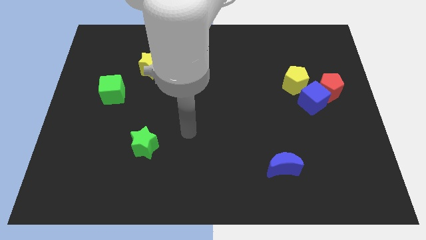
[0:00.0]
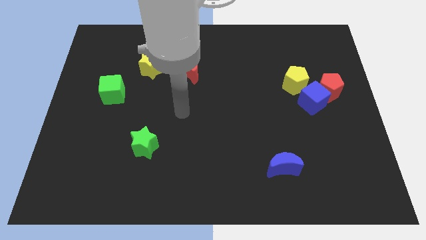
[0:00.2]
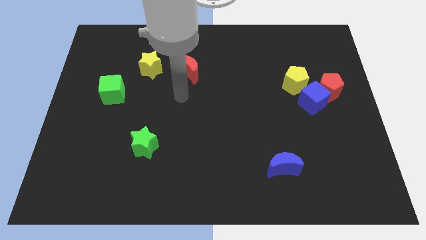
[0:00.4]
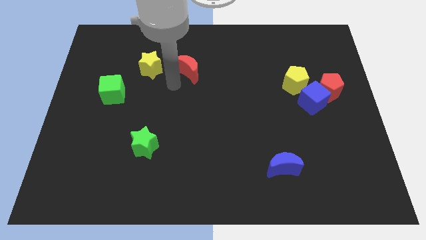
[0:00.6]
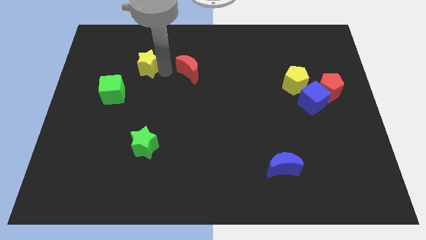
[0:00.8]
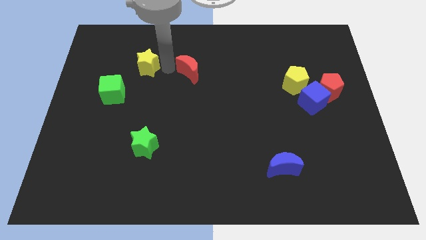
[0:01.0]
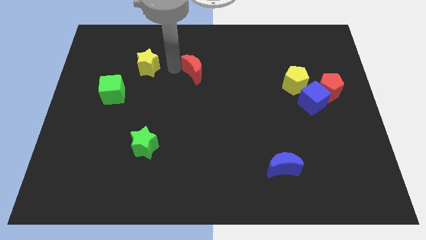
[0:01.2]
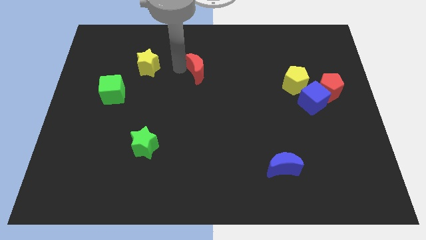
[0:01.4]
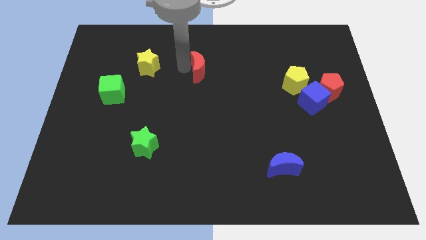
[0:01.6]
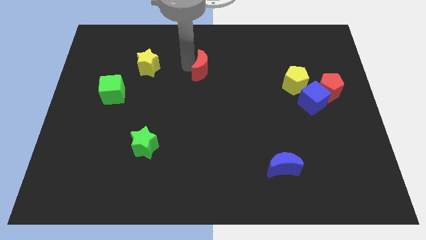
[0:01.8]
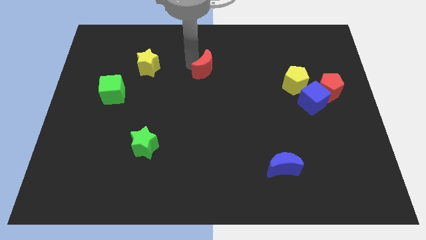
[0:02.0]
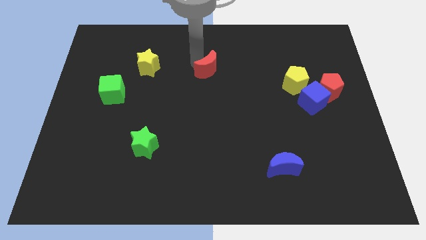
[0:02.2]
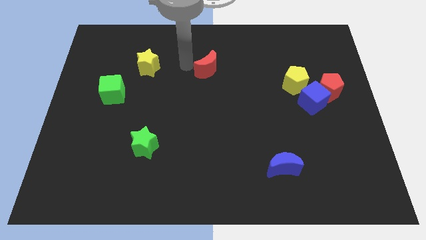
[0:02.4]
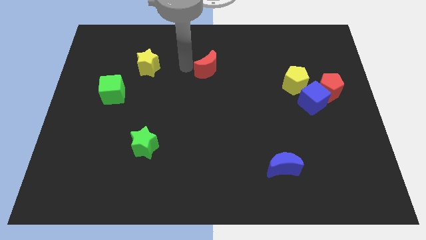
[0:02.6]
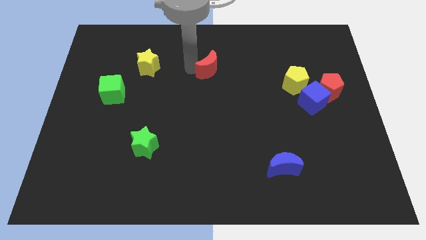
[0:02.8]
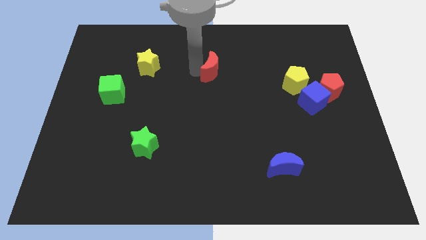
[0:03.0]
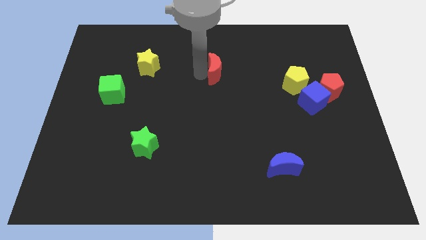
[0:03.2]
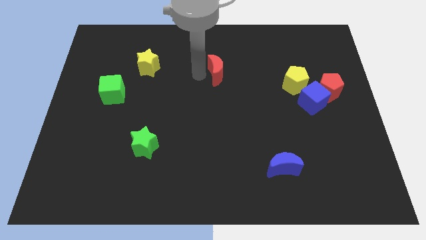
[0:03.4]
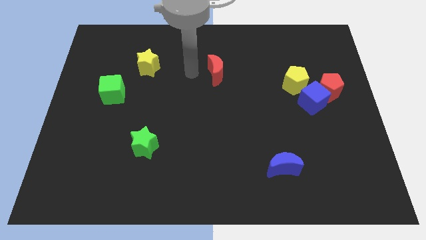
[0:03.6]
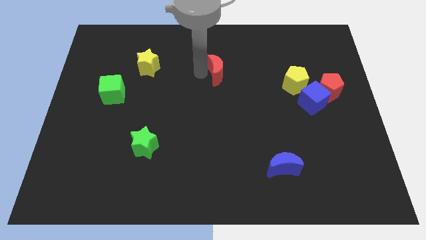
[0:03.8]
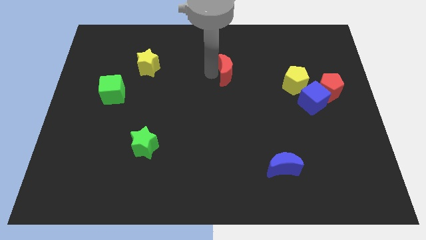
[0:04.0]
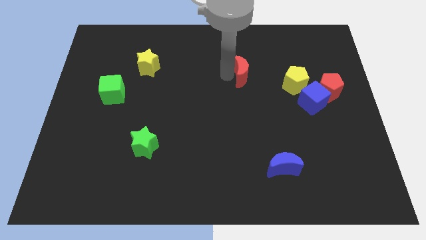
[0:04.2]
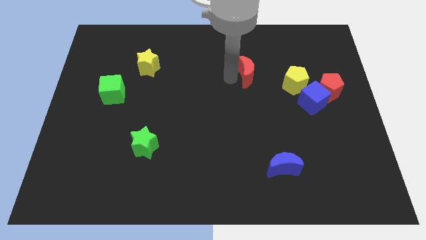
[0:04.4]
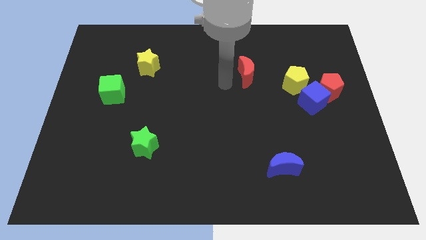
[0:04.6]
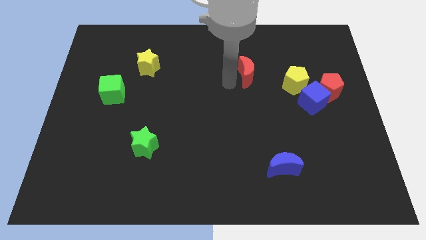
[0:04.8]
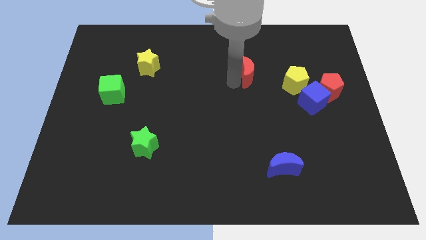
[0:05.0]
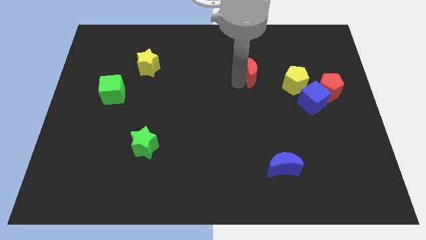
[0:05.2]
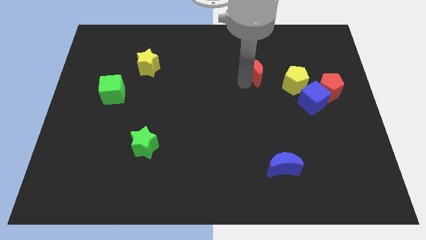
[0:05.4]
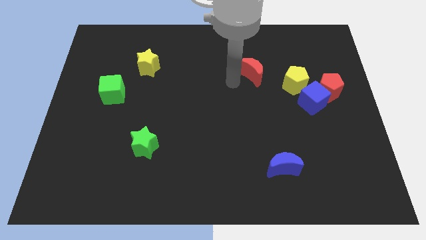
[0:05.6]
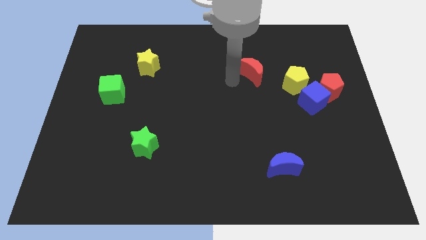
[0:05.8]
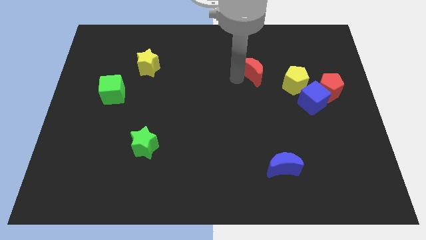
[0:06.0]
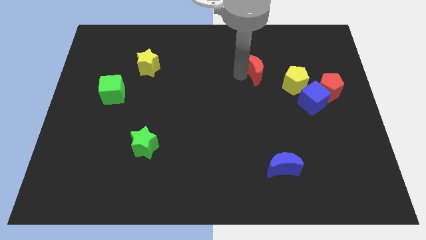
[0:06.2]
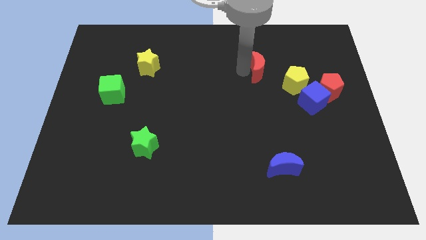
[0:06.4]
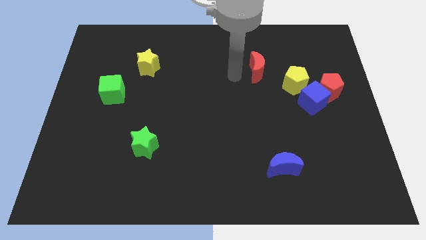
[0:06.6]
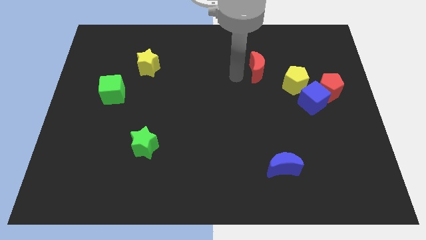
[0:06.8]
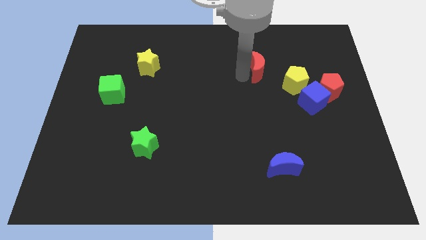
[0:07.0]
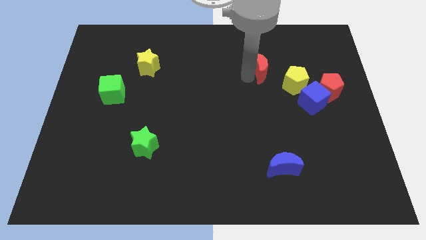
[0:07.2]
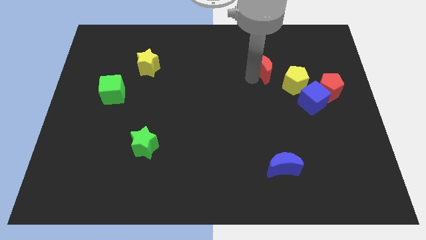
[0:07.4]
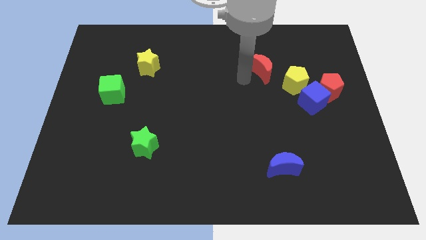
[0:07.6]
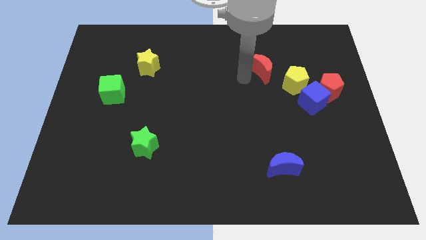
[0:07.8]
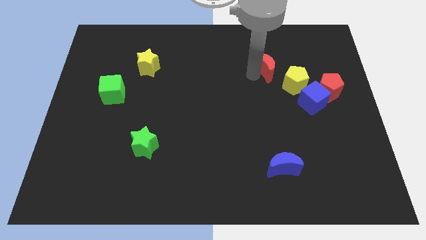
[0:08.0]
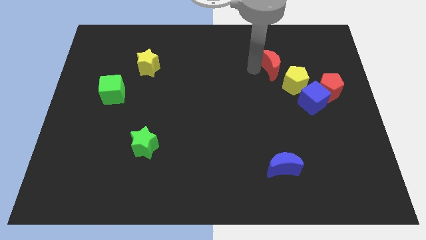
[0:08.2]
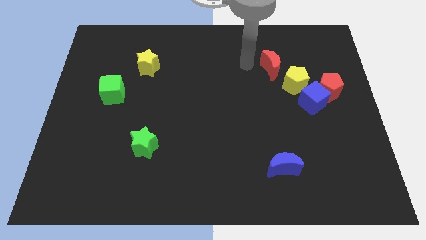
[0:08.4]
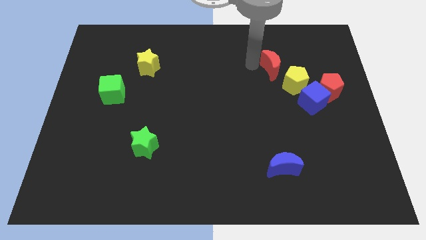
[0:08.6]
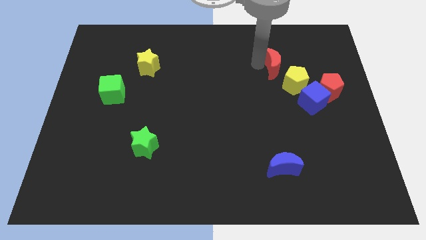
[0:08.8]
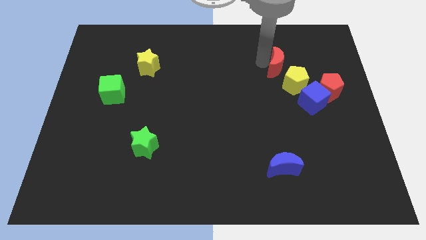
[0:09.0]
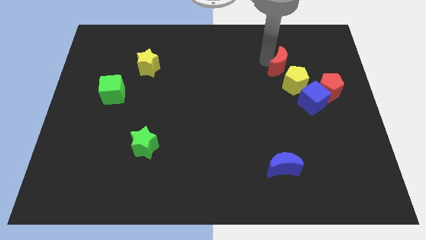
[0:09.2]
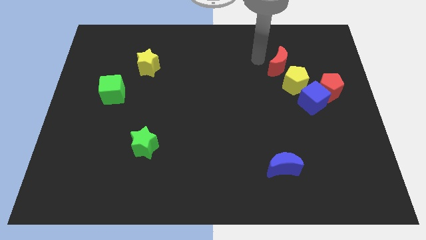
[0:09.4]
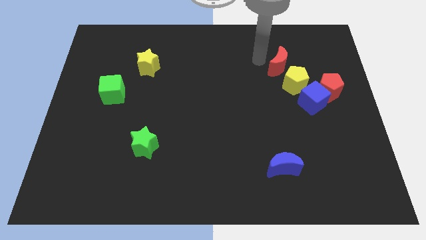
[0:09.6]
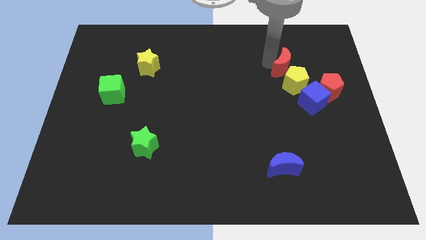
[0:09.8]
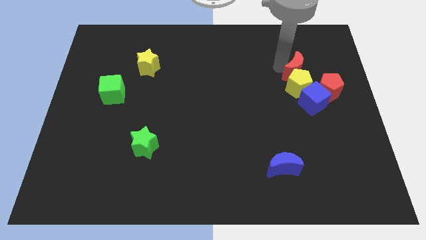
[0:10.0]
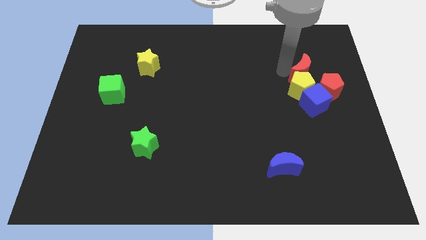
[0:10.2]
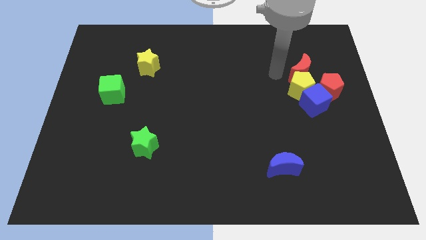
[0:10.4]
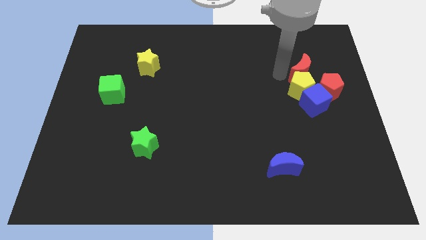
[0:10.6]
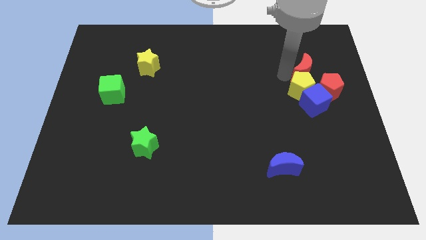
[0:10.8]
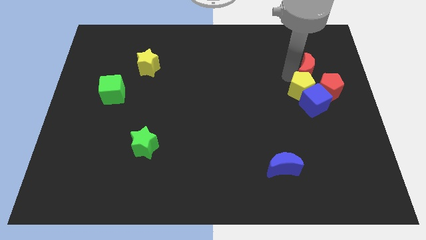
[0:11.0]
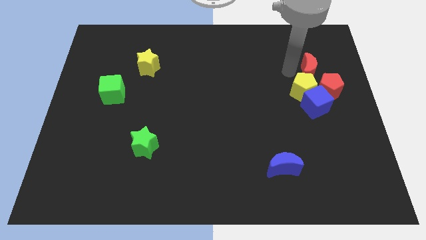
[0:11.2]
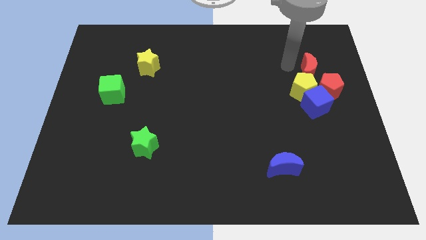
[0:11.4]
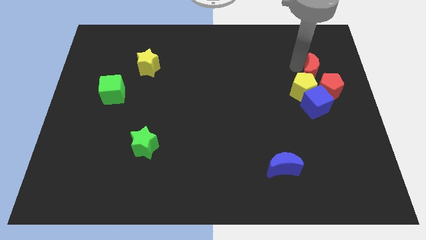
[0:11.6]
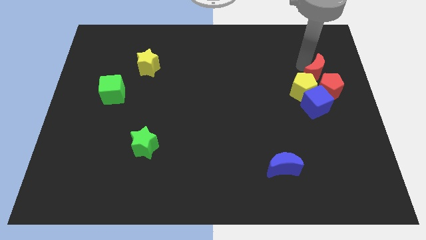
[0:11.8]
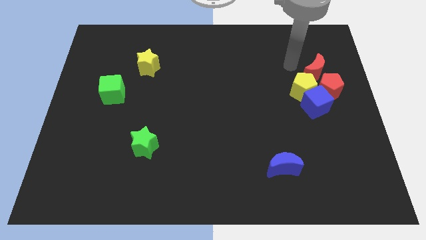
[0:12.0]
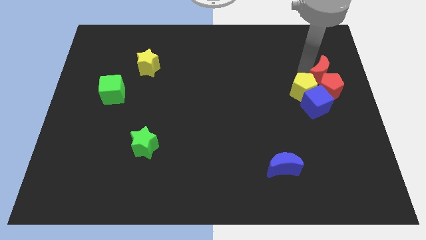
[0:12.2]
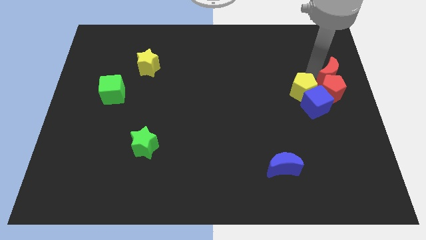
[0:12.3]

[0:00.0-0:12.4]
move the red moon to the right side of the board
